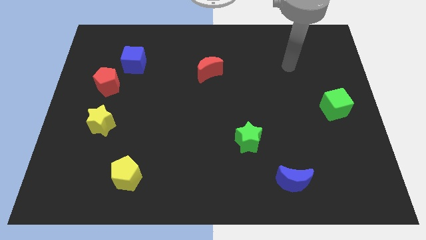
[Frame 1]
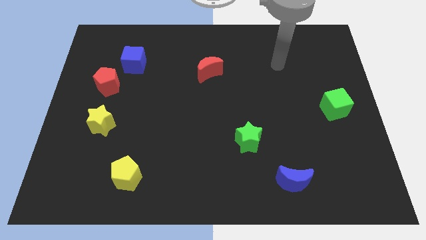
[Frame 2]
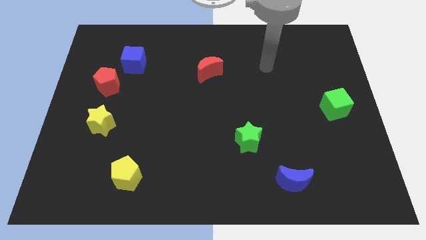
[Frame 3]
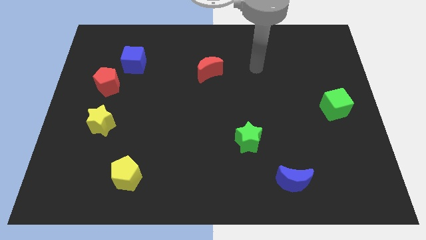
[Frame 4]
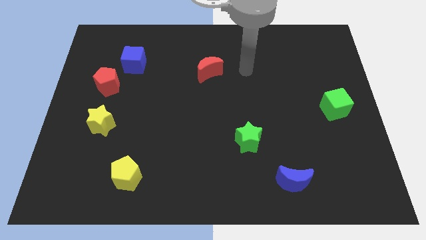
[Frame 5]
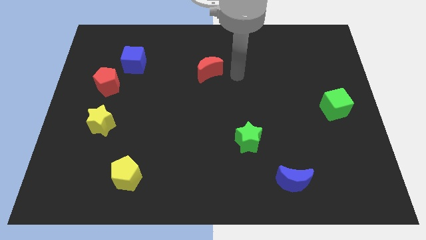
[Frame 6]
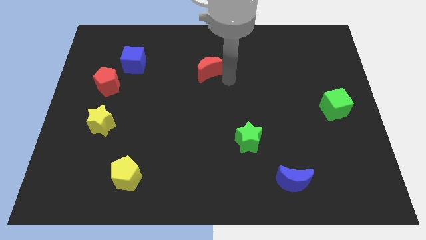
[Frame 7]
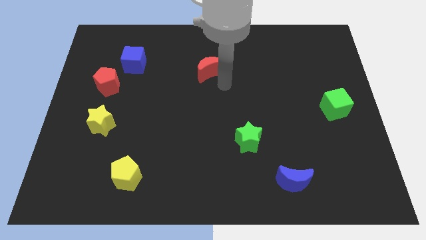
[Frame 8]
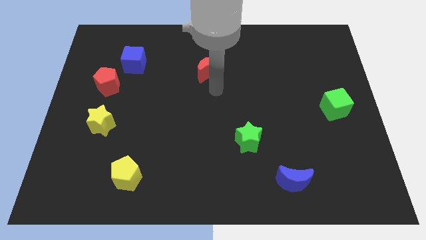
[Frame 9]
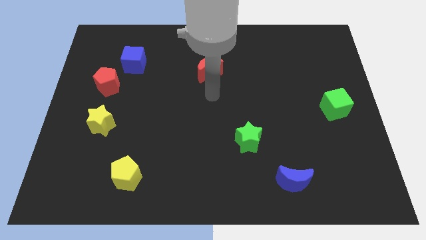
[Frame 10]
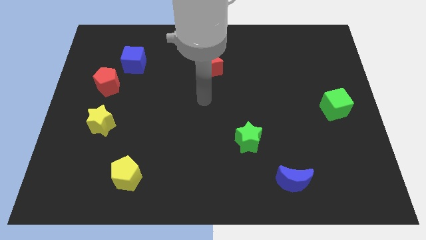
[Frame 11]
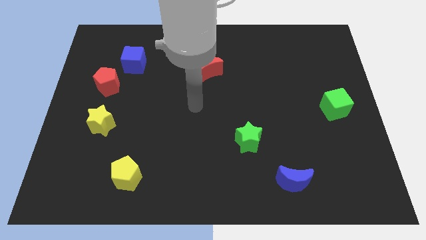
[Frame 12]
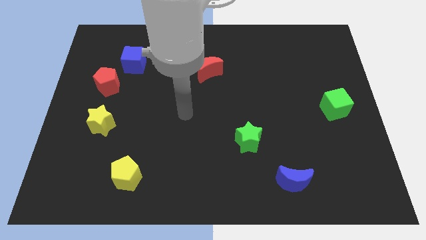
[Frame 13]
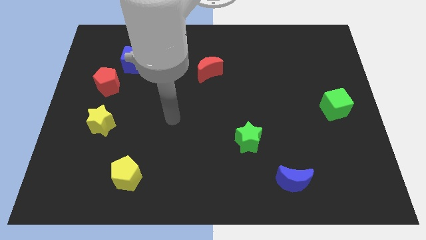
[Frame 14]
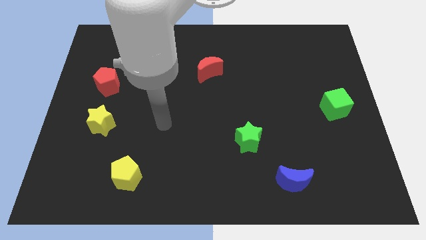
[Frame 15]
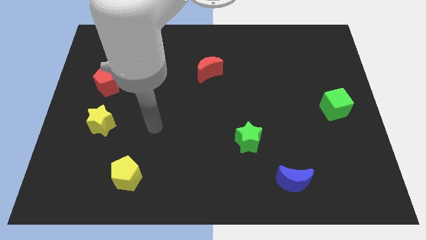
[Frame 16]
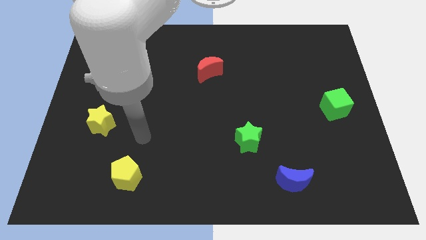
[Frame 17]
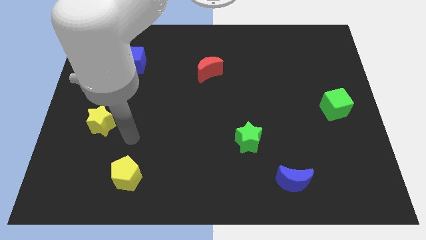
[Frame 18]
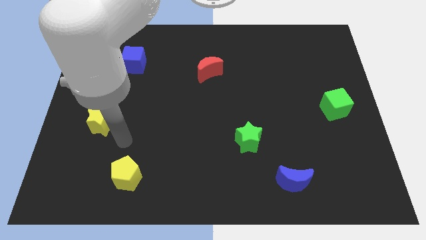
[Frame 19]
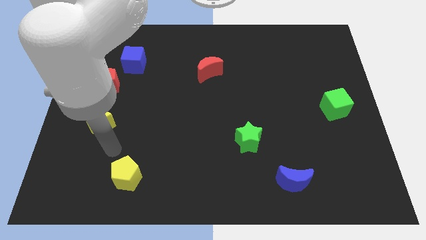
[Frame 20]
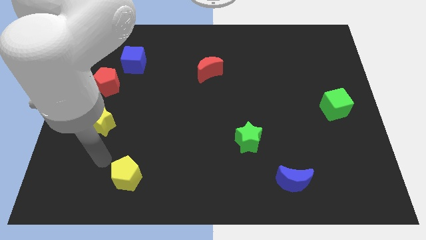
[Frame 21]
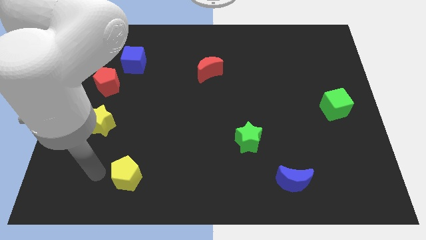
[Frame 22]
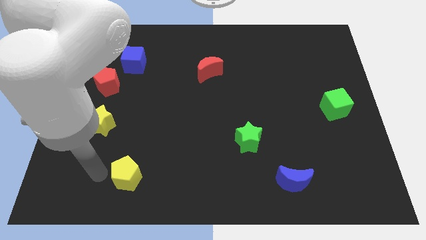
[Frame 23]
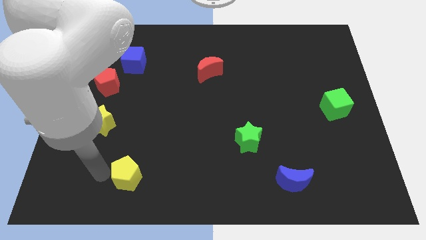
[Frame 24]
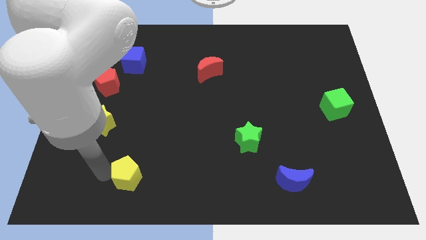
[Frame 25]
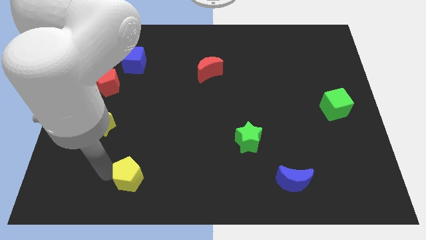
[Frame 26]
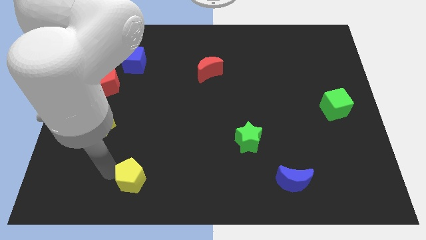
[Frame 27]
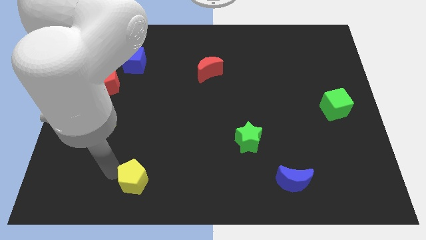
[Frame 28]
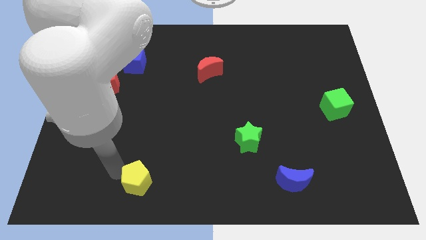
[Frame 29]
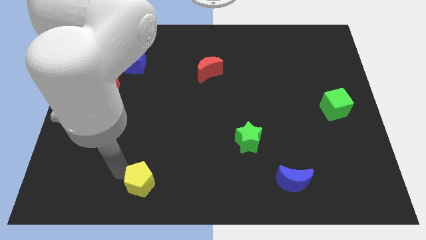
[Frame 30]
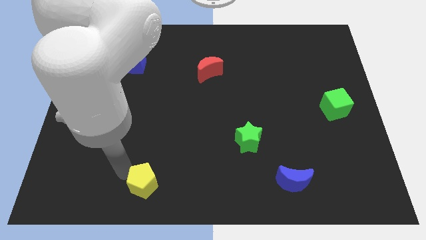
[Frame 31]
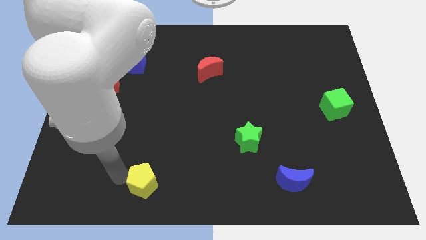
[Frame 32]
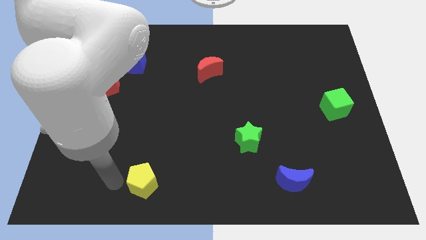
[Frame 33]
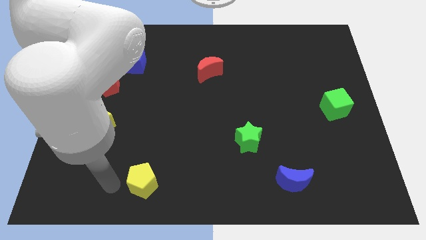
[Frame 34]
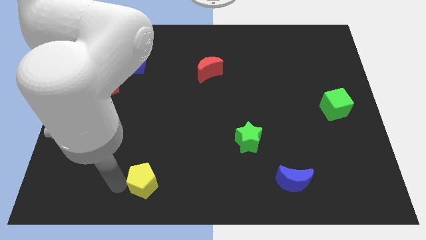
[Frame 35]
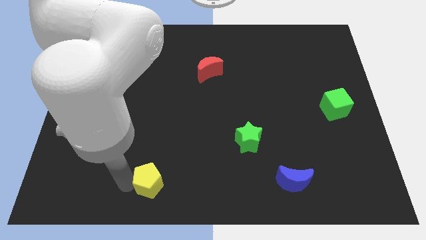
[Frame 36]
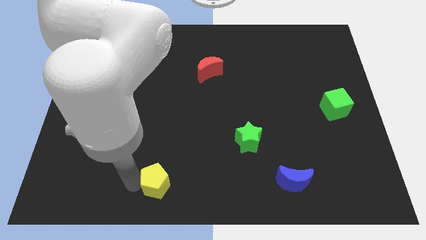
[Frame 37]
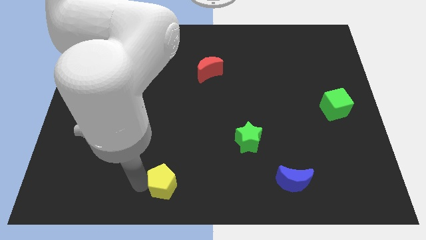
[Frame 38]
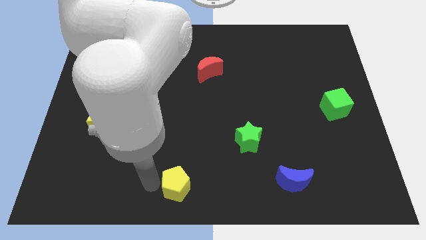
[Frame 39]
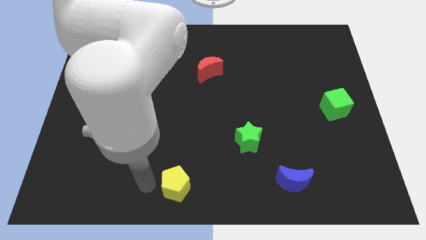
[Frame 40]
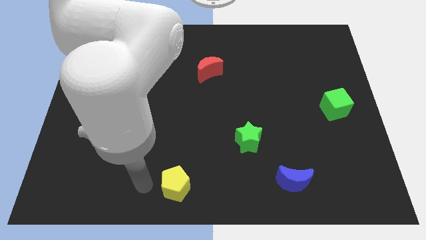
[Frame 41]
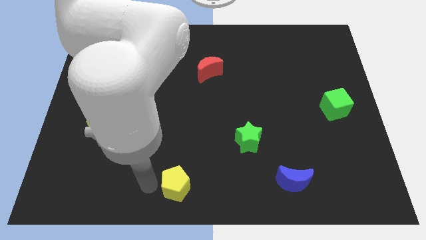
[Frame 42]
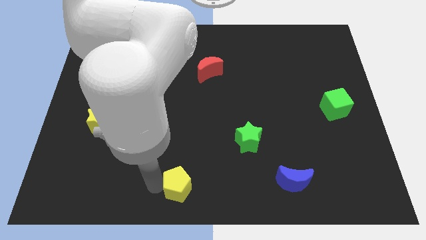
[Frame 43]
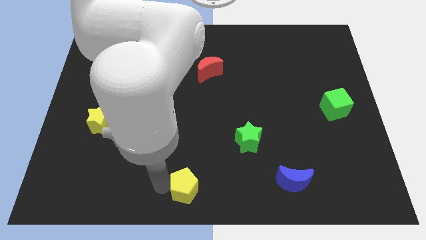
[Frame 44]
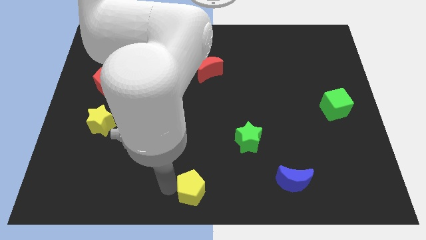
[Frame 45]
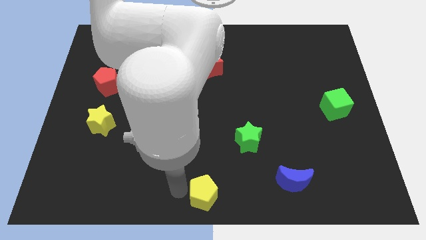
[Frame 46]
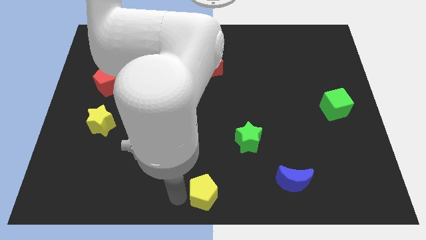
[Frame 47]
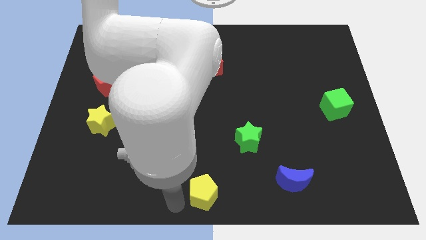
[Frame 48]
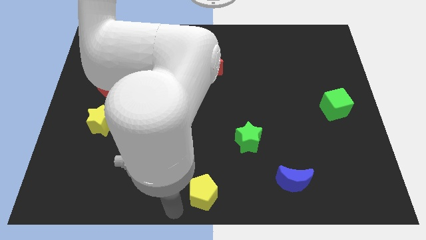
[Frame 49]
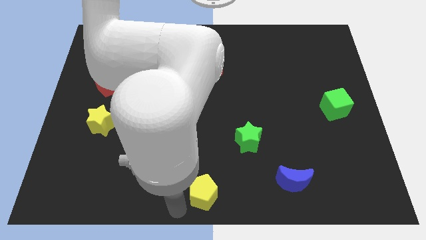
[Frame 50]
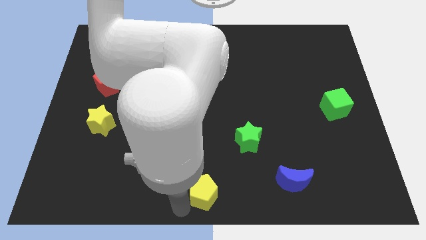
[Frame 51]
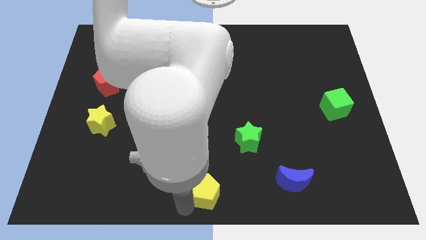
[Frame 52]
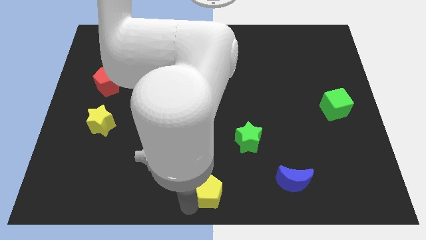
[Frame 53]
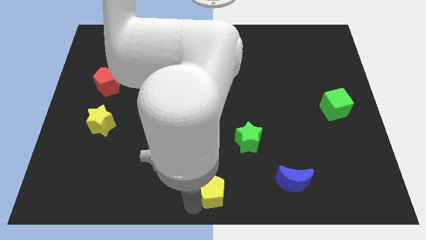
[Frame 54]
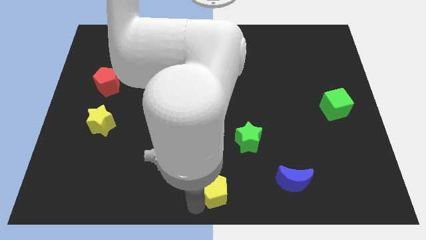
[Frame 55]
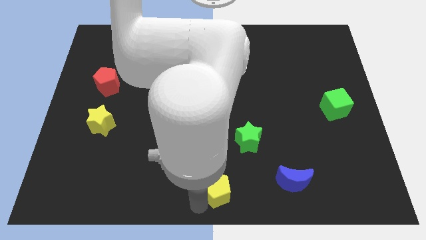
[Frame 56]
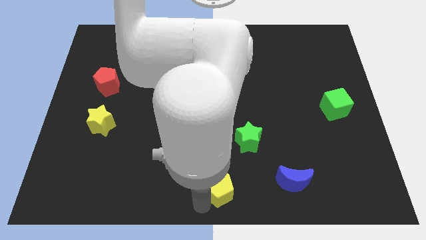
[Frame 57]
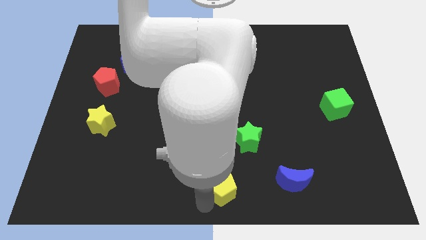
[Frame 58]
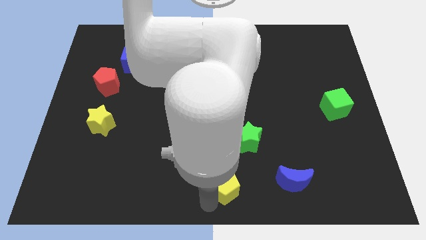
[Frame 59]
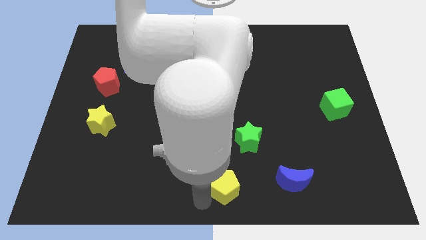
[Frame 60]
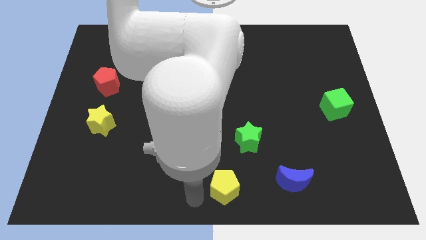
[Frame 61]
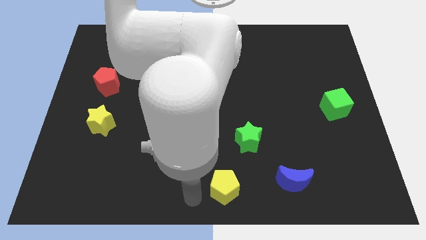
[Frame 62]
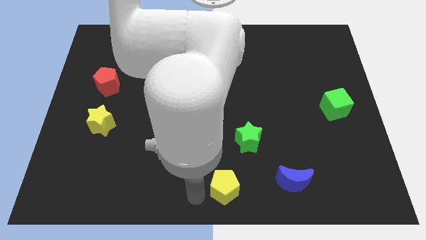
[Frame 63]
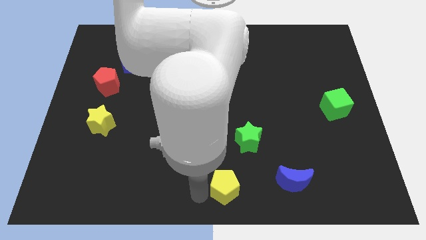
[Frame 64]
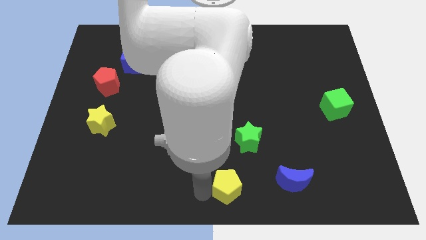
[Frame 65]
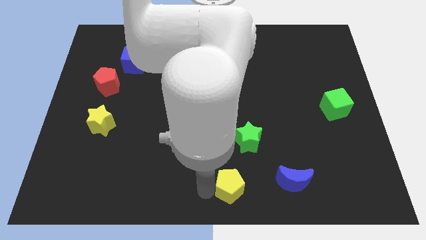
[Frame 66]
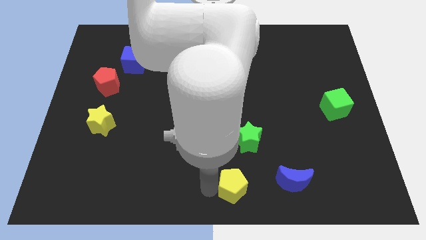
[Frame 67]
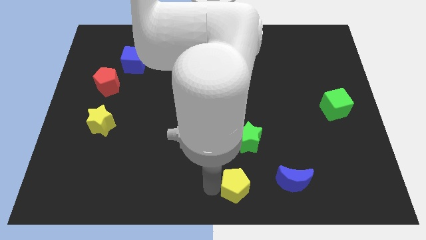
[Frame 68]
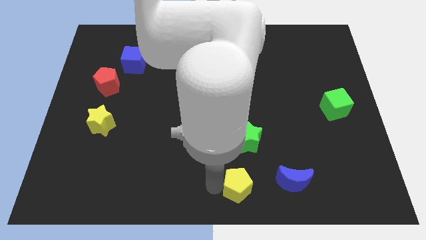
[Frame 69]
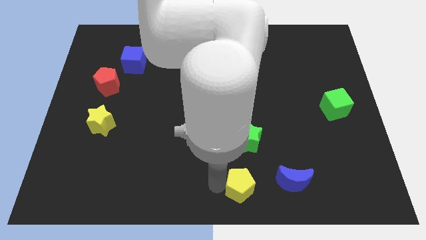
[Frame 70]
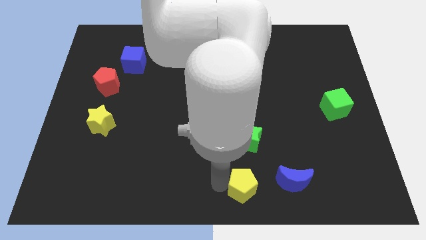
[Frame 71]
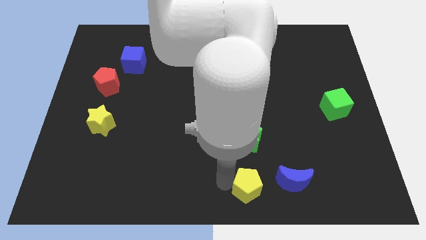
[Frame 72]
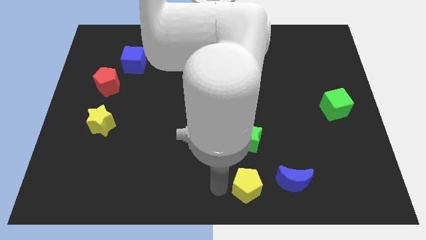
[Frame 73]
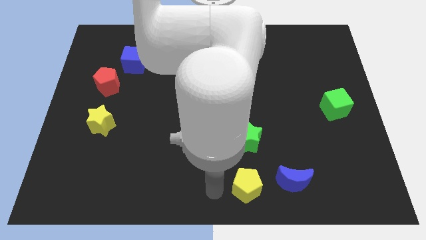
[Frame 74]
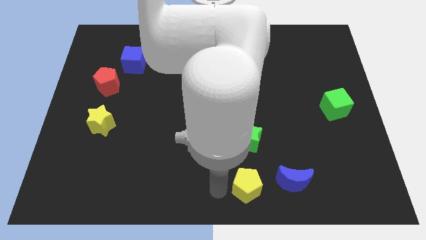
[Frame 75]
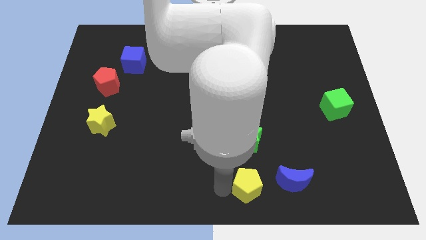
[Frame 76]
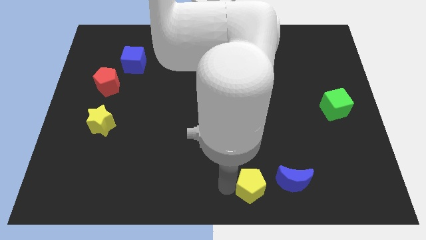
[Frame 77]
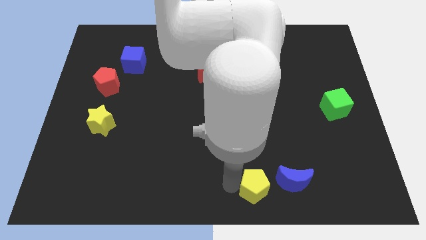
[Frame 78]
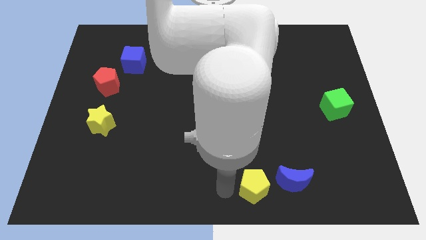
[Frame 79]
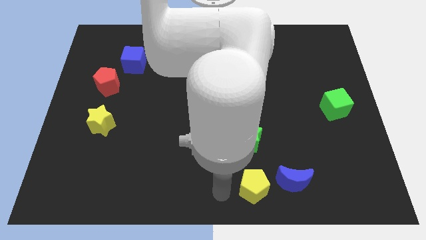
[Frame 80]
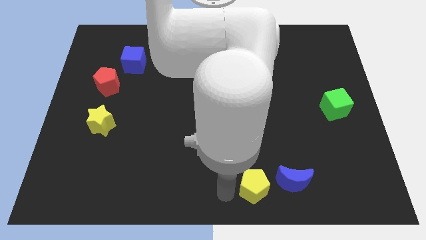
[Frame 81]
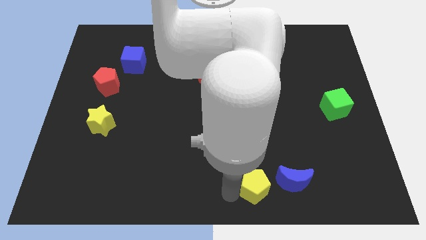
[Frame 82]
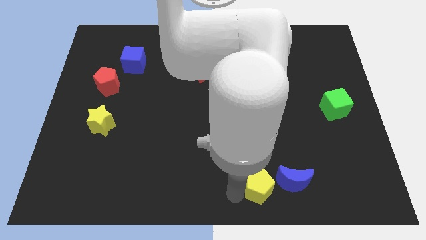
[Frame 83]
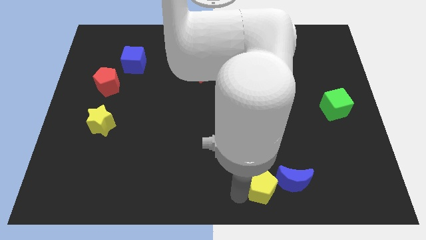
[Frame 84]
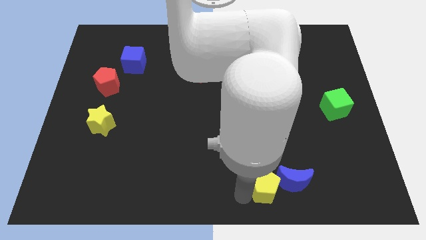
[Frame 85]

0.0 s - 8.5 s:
put the yellow pentagon towards the blue moon
